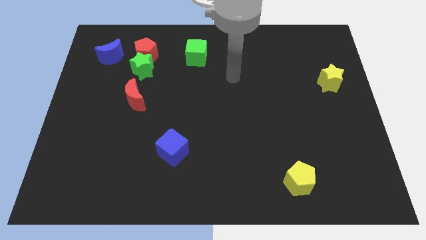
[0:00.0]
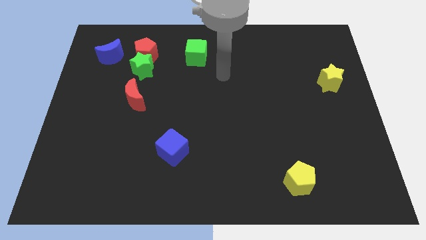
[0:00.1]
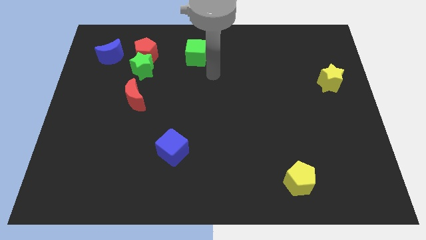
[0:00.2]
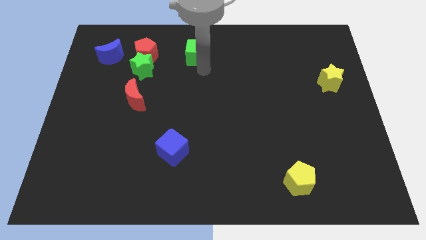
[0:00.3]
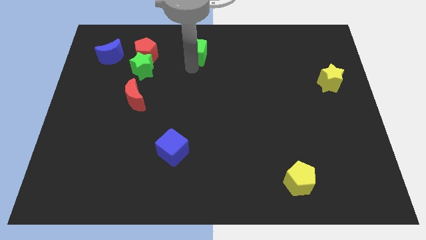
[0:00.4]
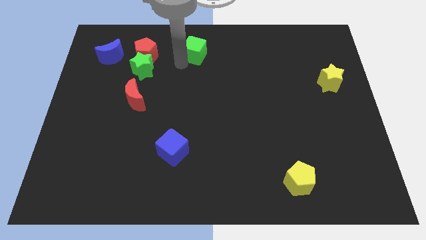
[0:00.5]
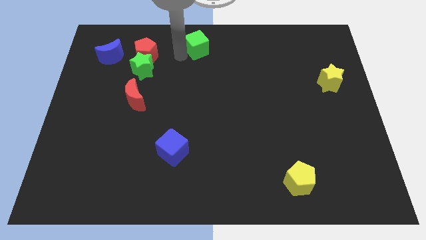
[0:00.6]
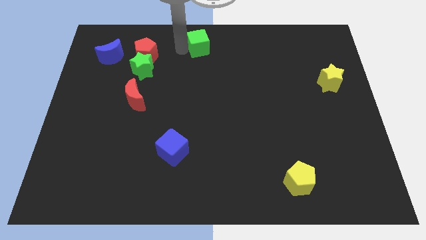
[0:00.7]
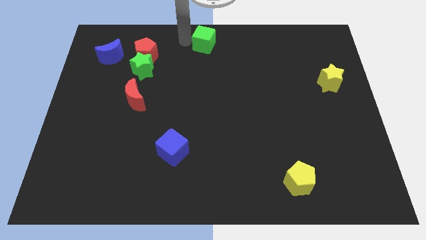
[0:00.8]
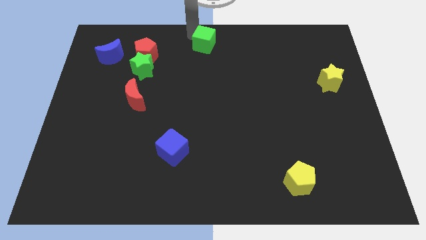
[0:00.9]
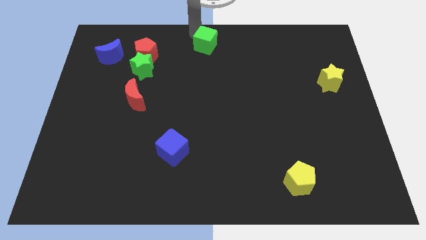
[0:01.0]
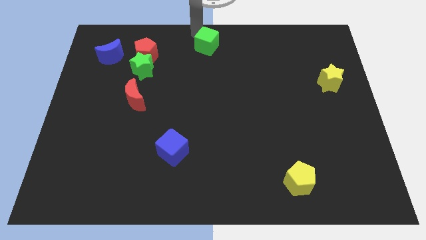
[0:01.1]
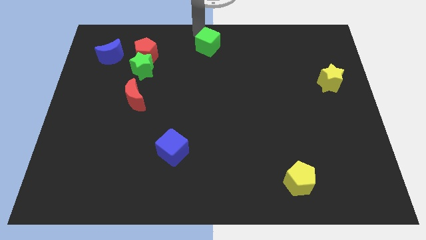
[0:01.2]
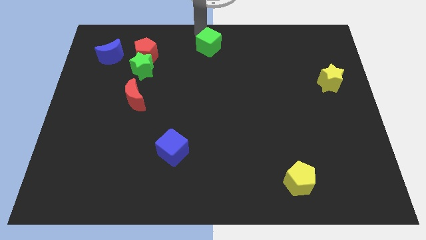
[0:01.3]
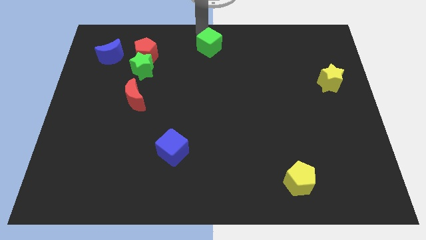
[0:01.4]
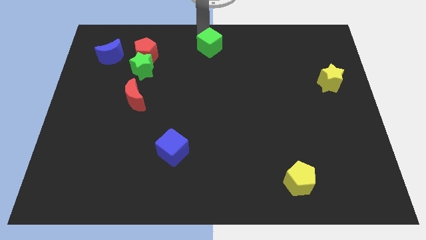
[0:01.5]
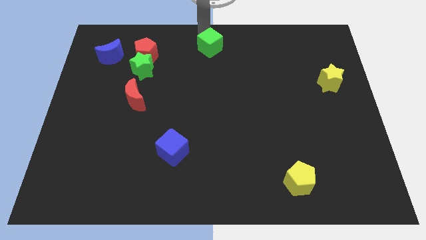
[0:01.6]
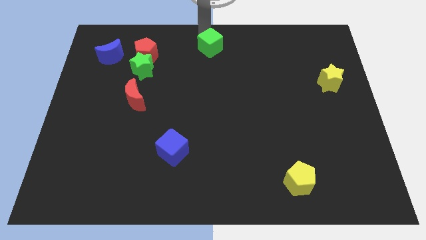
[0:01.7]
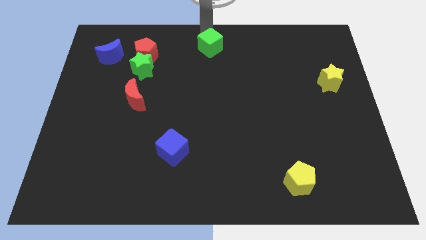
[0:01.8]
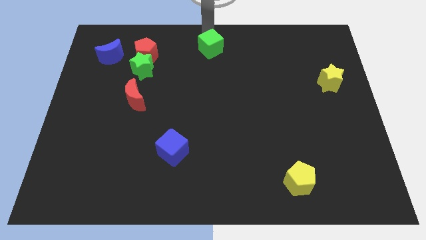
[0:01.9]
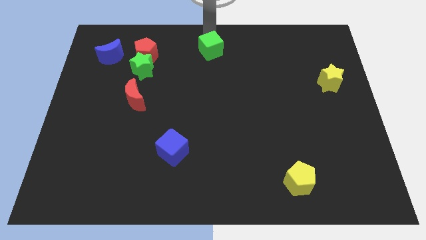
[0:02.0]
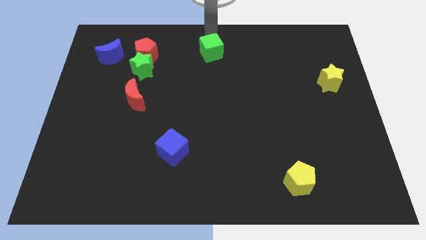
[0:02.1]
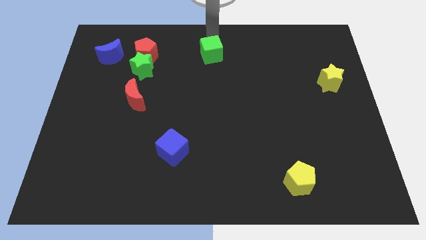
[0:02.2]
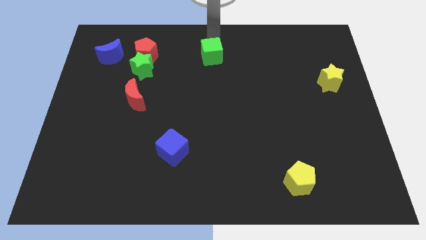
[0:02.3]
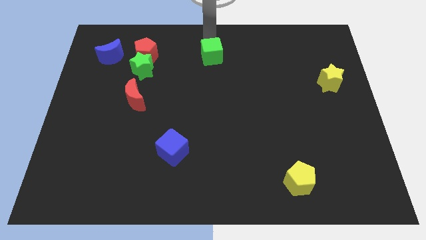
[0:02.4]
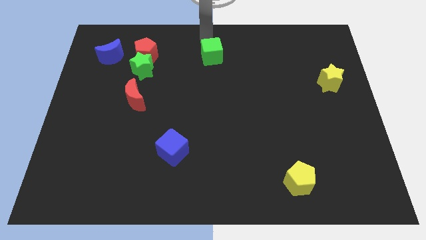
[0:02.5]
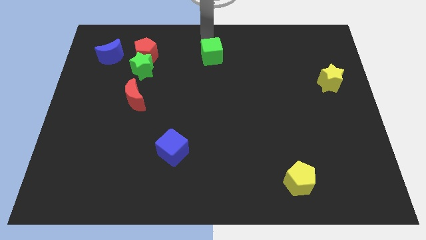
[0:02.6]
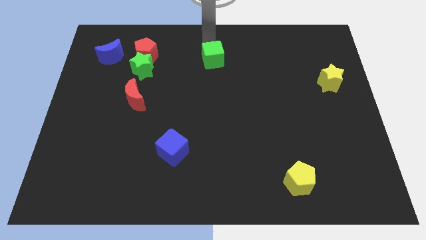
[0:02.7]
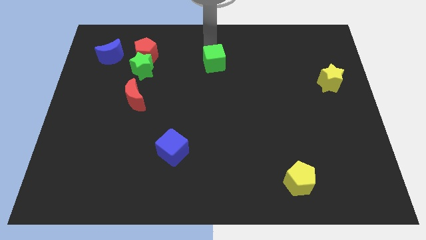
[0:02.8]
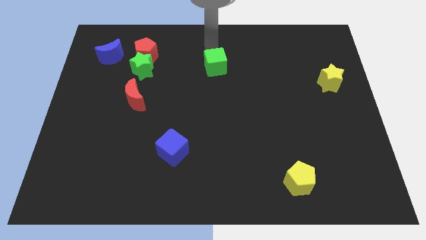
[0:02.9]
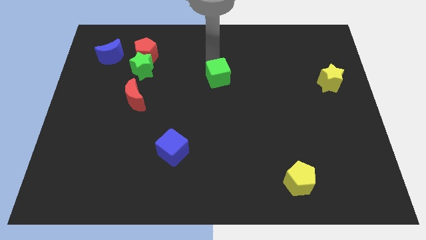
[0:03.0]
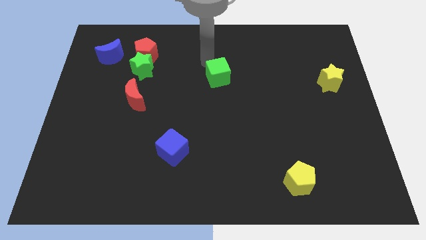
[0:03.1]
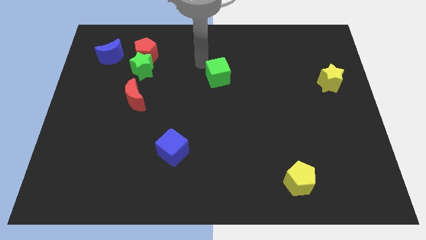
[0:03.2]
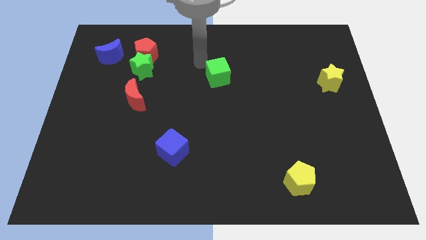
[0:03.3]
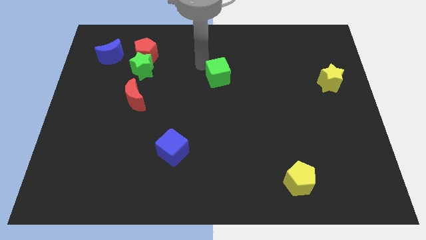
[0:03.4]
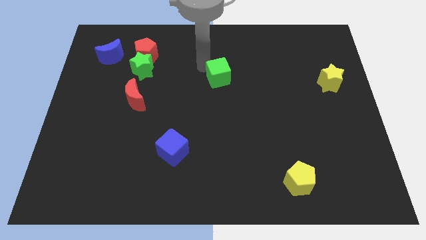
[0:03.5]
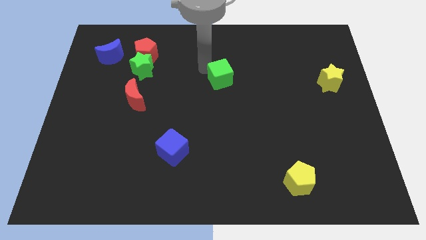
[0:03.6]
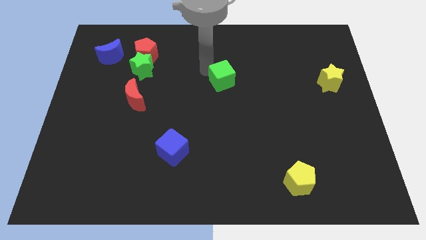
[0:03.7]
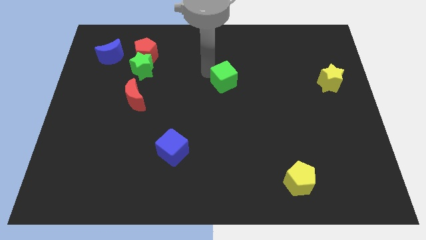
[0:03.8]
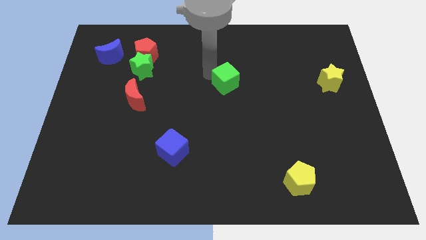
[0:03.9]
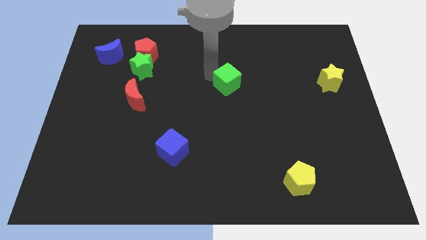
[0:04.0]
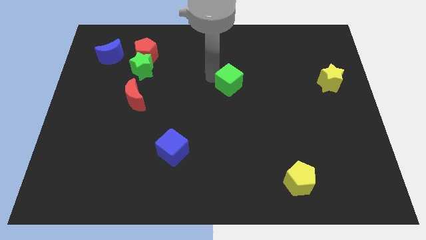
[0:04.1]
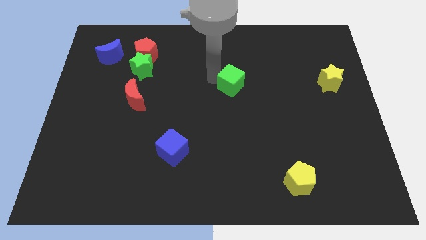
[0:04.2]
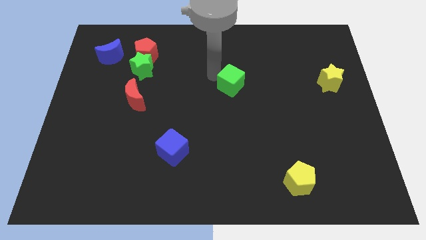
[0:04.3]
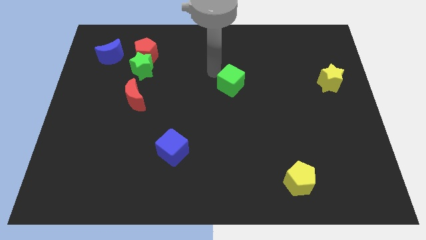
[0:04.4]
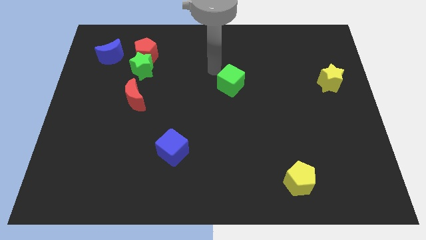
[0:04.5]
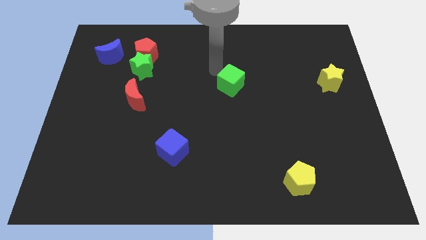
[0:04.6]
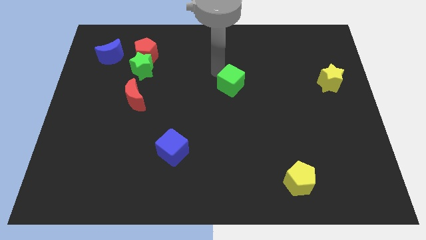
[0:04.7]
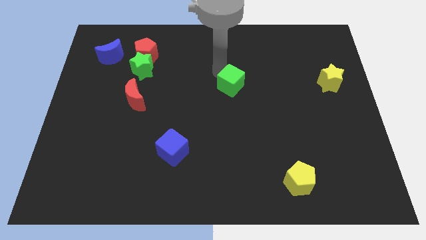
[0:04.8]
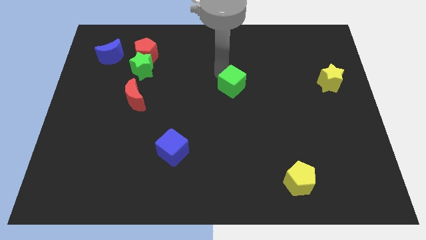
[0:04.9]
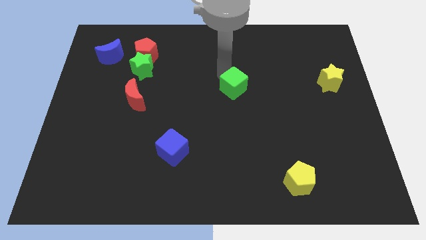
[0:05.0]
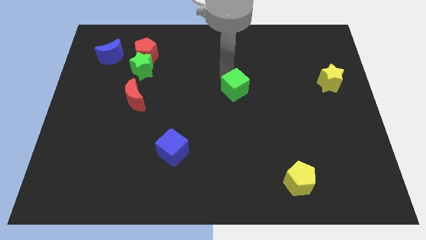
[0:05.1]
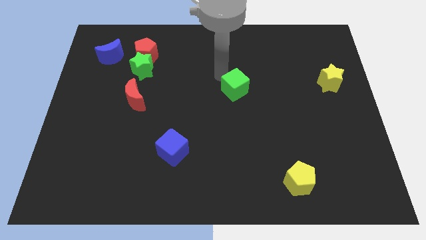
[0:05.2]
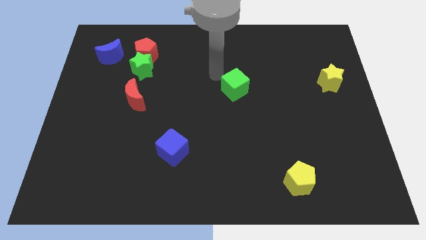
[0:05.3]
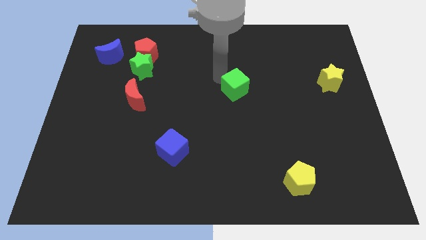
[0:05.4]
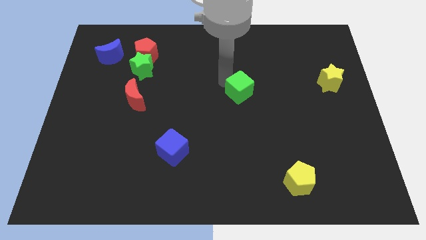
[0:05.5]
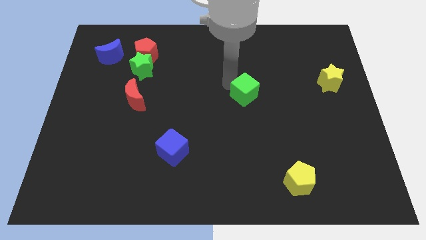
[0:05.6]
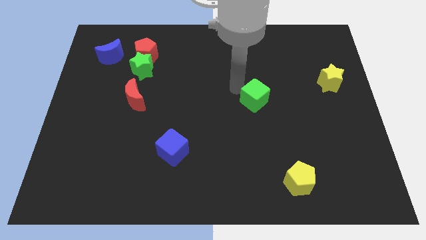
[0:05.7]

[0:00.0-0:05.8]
move the green cube diagonally downwards and right

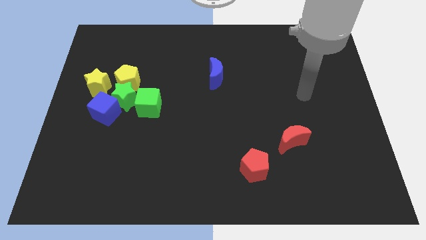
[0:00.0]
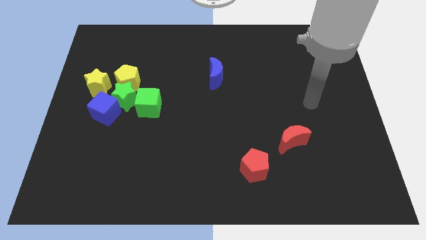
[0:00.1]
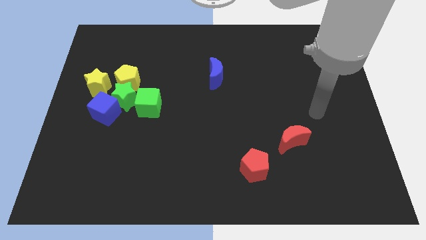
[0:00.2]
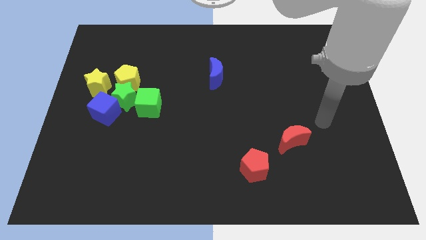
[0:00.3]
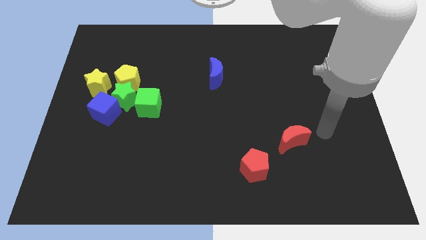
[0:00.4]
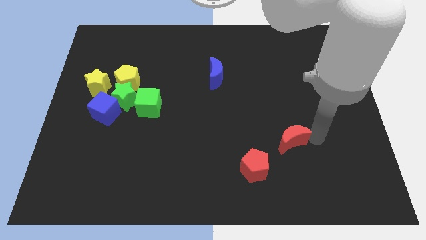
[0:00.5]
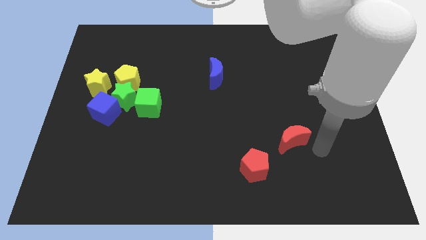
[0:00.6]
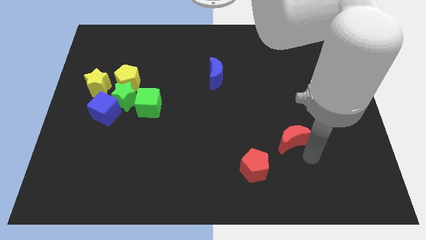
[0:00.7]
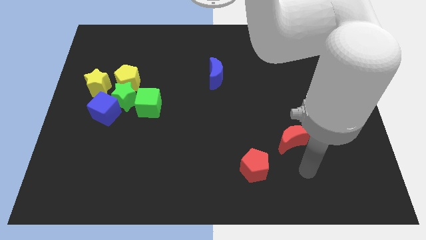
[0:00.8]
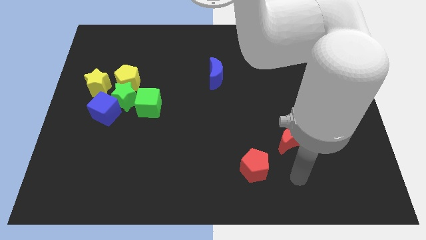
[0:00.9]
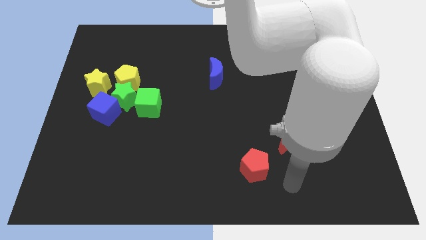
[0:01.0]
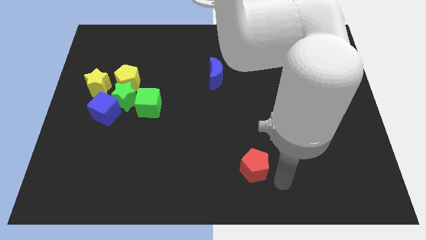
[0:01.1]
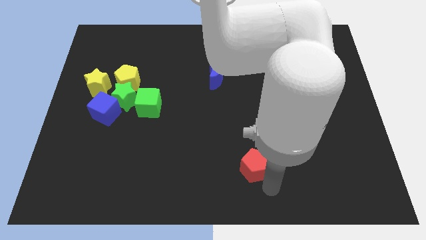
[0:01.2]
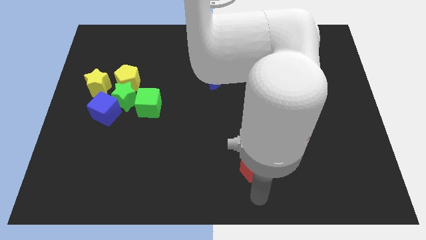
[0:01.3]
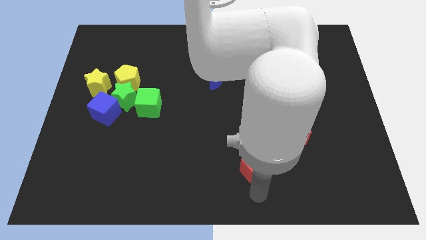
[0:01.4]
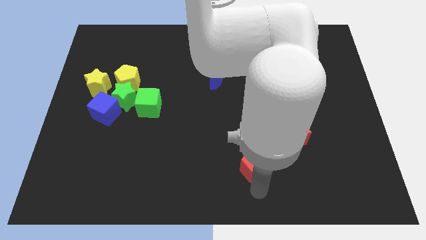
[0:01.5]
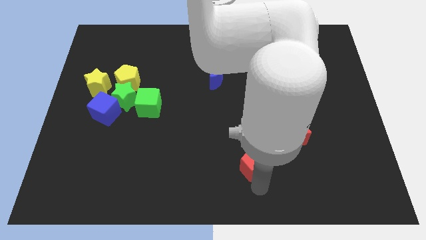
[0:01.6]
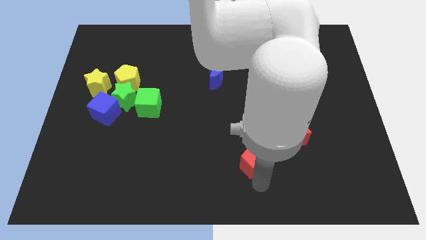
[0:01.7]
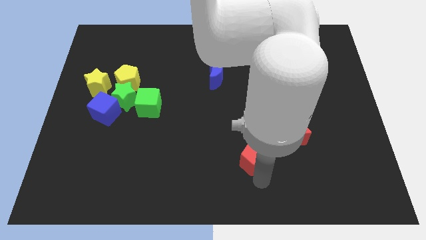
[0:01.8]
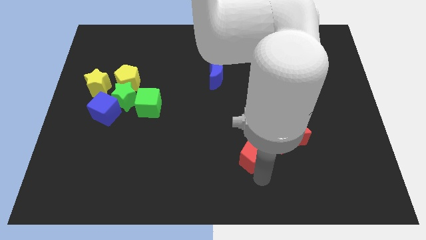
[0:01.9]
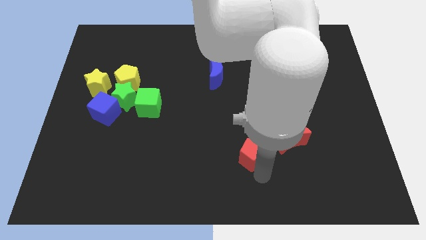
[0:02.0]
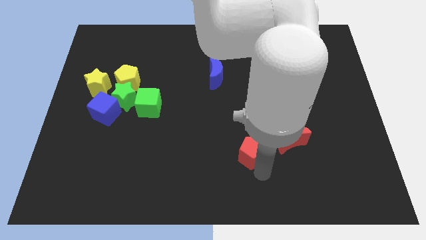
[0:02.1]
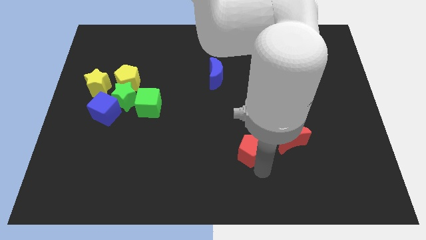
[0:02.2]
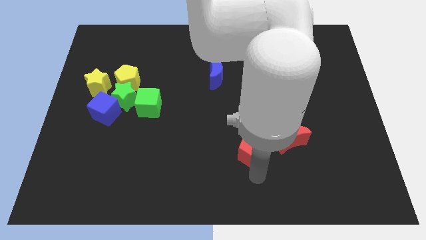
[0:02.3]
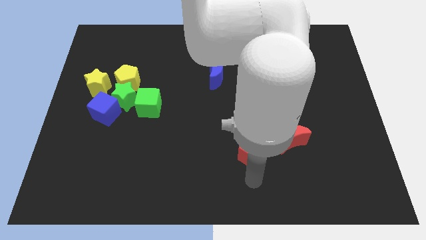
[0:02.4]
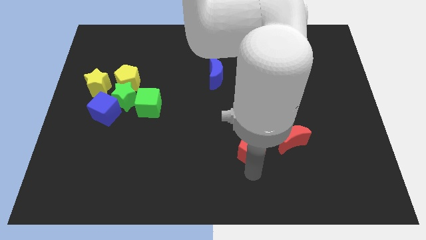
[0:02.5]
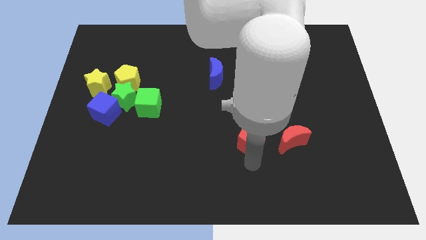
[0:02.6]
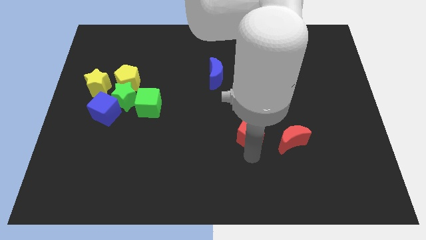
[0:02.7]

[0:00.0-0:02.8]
slide the red pentagon a little bit upwards

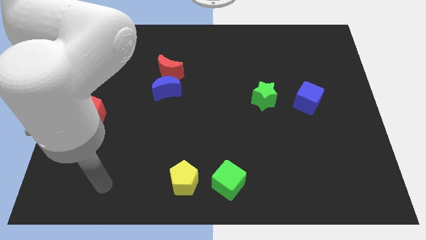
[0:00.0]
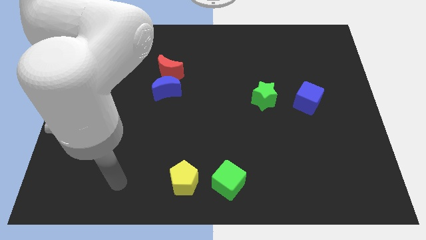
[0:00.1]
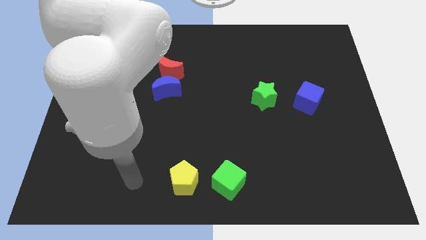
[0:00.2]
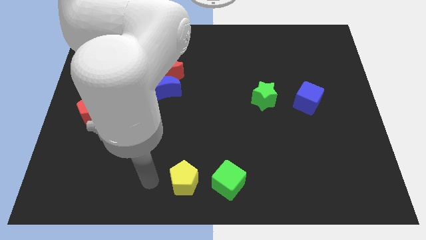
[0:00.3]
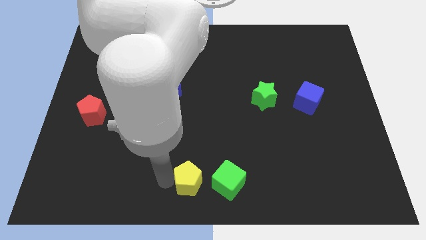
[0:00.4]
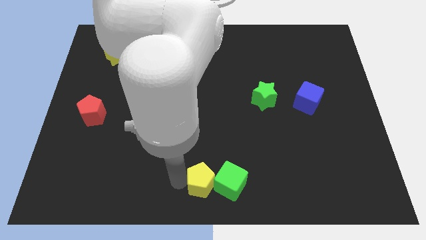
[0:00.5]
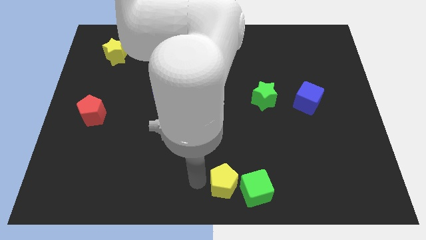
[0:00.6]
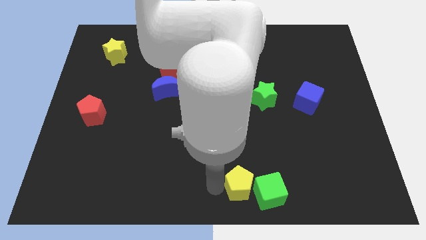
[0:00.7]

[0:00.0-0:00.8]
push the green cube to the right a bit
